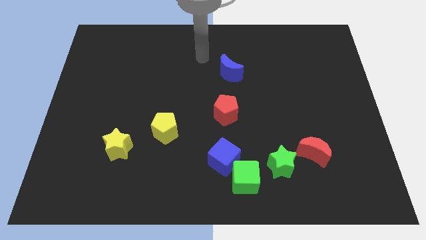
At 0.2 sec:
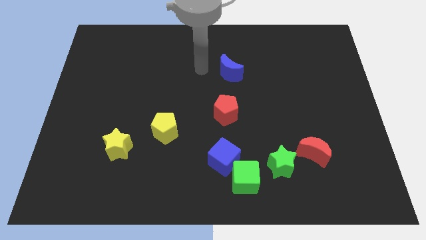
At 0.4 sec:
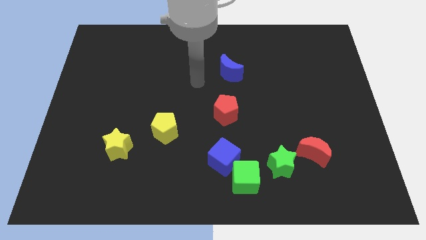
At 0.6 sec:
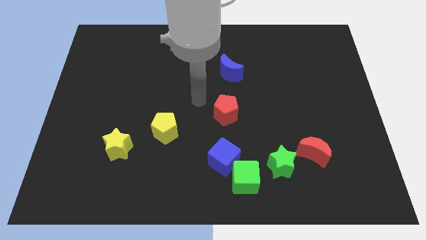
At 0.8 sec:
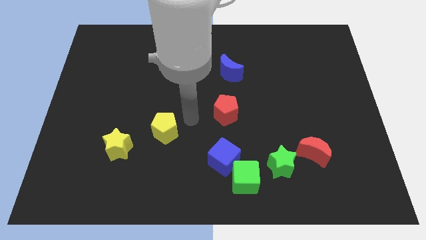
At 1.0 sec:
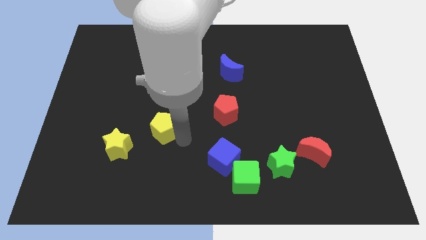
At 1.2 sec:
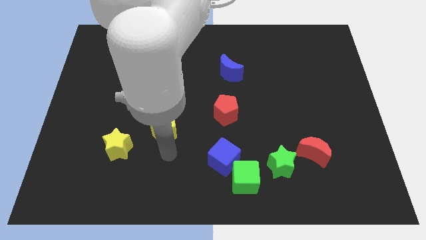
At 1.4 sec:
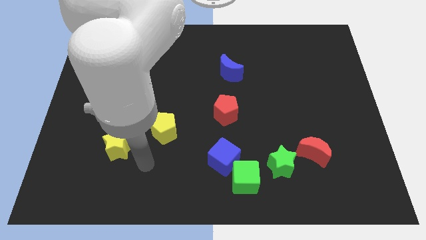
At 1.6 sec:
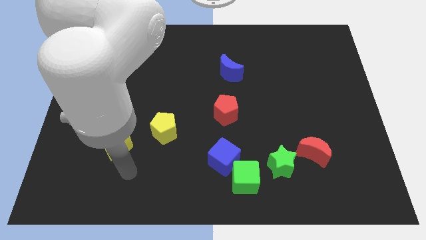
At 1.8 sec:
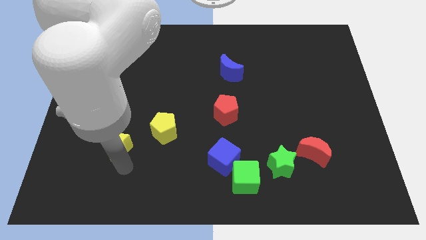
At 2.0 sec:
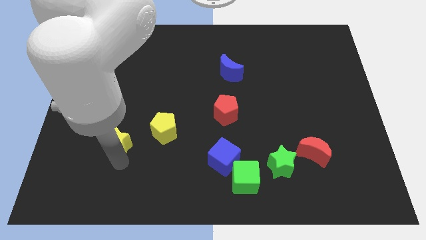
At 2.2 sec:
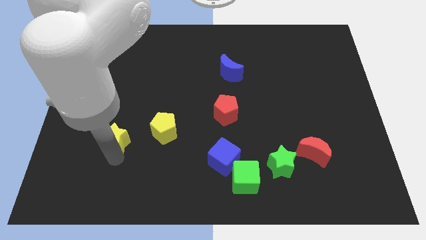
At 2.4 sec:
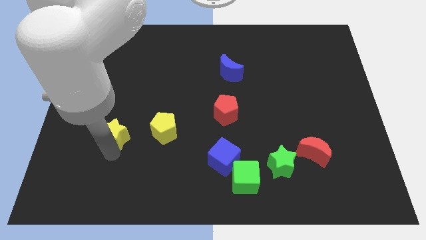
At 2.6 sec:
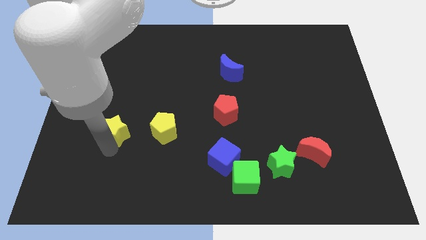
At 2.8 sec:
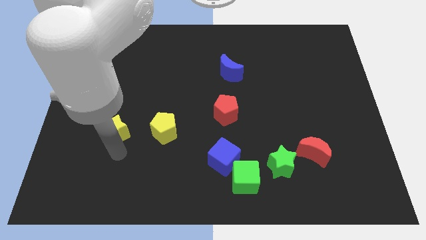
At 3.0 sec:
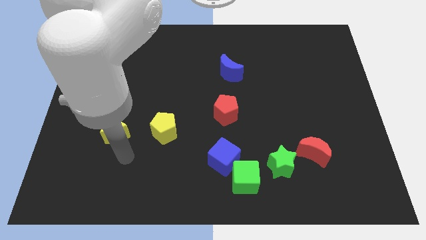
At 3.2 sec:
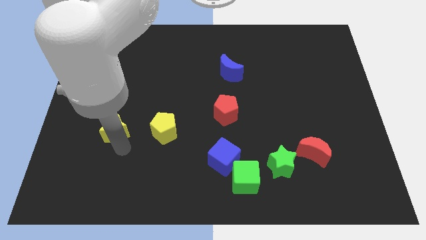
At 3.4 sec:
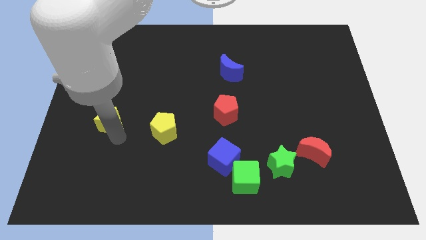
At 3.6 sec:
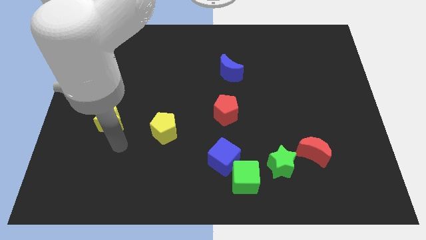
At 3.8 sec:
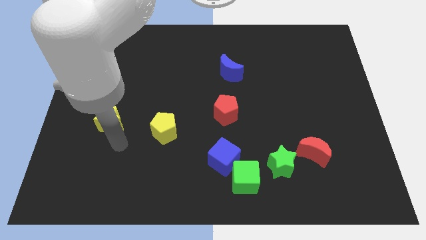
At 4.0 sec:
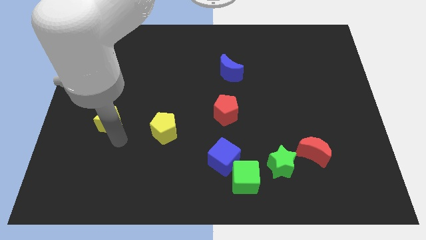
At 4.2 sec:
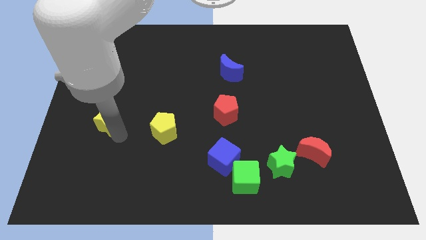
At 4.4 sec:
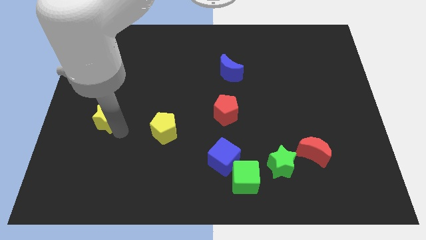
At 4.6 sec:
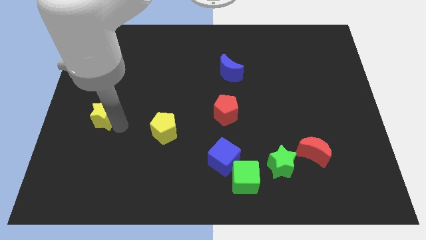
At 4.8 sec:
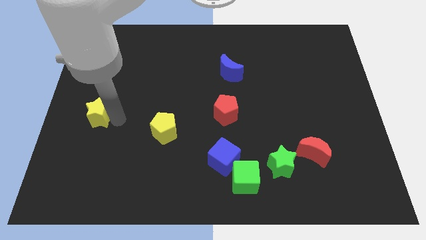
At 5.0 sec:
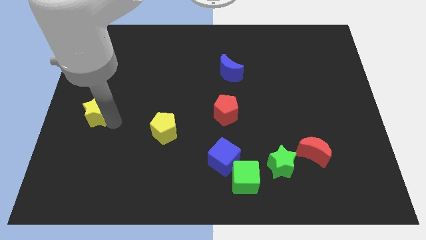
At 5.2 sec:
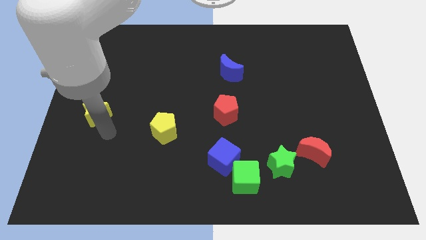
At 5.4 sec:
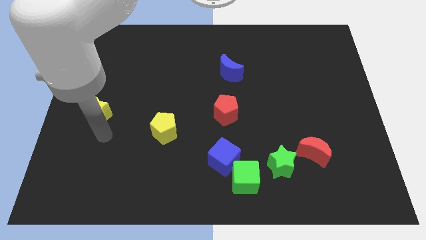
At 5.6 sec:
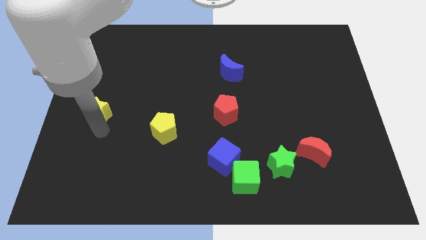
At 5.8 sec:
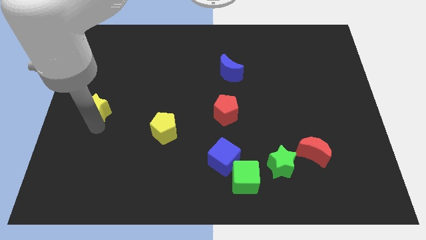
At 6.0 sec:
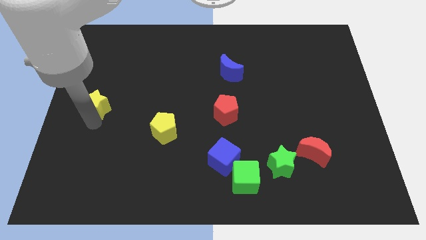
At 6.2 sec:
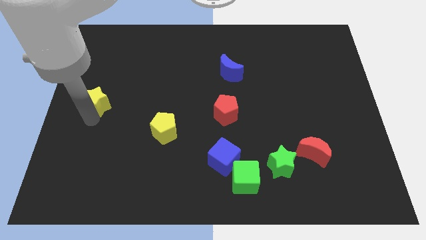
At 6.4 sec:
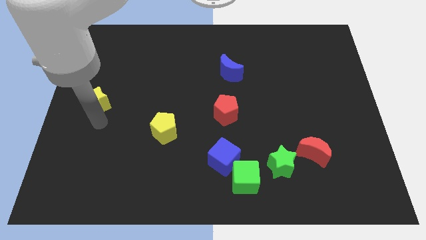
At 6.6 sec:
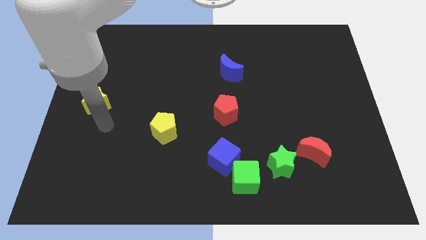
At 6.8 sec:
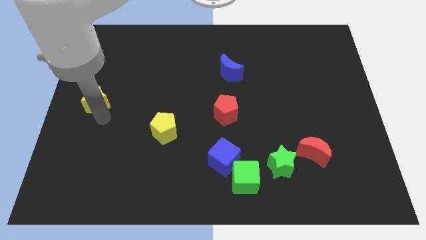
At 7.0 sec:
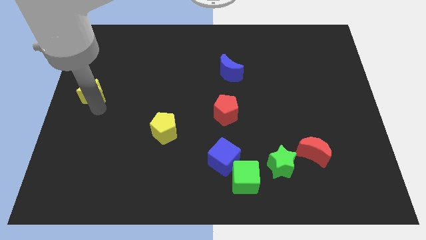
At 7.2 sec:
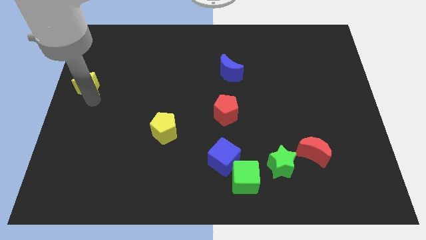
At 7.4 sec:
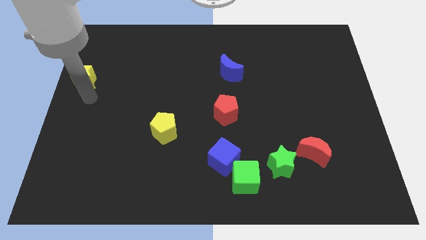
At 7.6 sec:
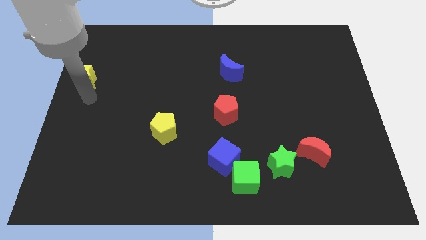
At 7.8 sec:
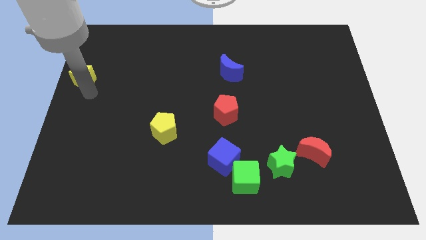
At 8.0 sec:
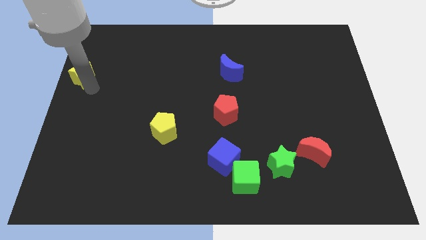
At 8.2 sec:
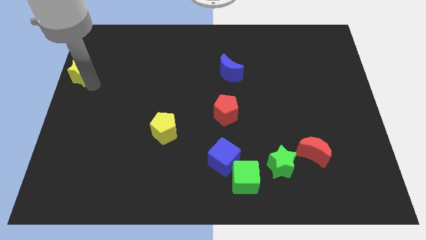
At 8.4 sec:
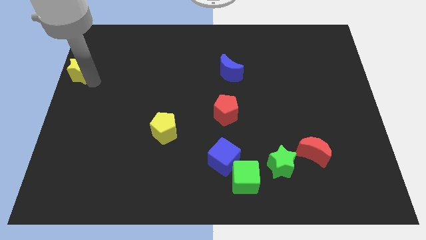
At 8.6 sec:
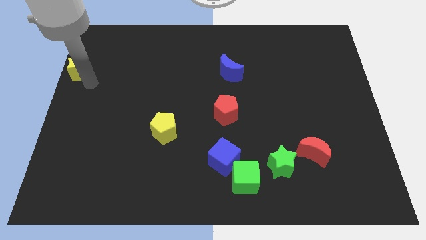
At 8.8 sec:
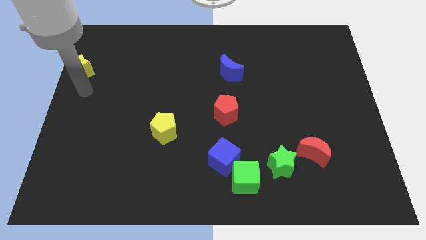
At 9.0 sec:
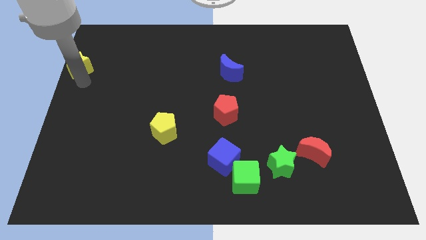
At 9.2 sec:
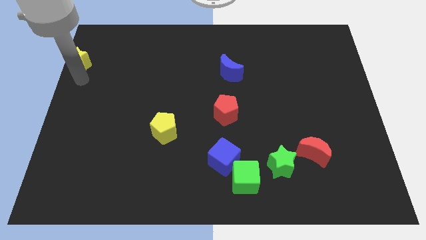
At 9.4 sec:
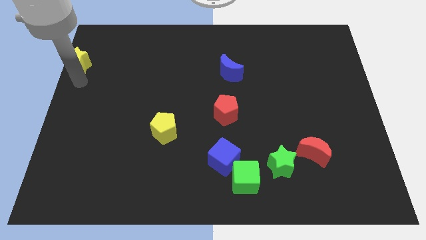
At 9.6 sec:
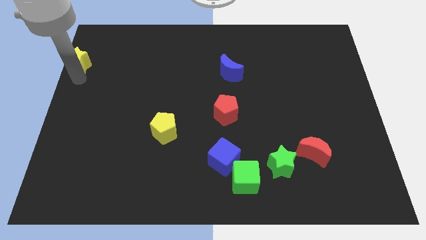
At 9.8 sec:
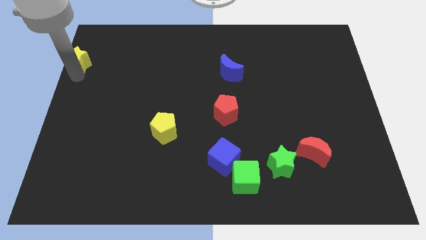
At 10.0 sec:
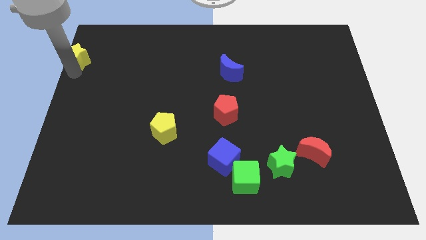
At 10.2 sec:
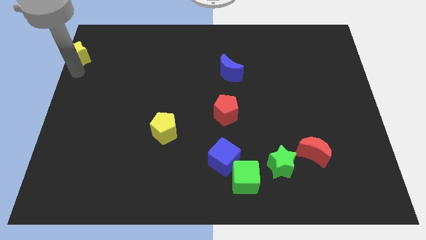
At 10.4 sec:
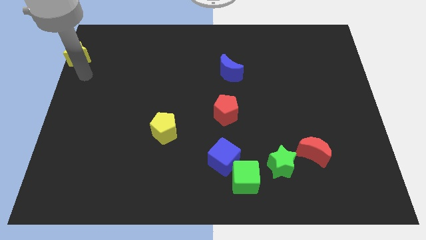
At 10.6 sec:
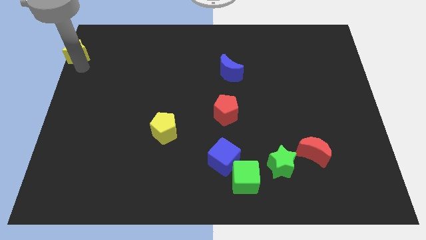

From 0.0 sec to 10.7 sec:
move the yellow star to the top left corner

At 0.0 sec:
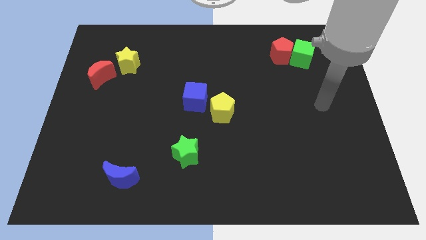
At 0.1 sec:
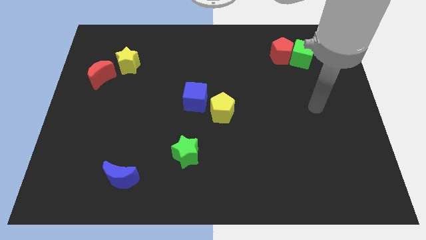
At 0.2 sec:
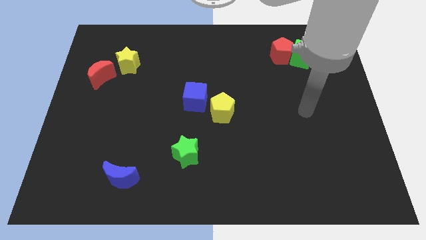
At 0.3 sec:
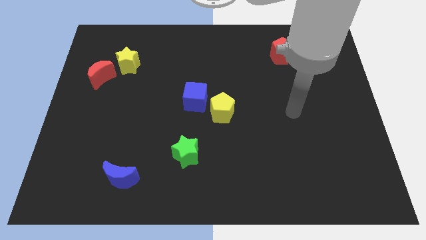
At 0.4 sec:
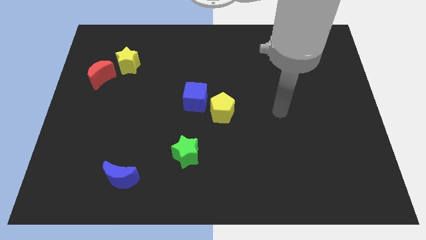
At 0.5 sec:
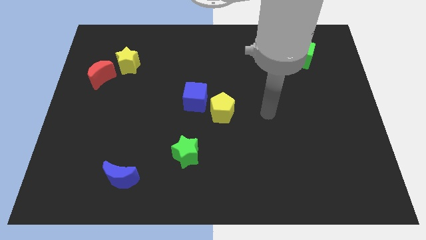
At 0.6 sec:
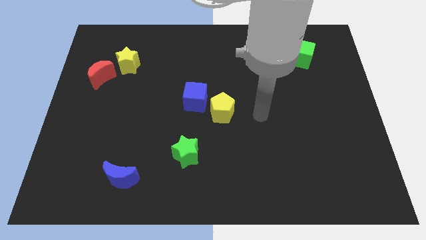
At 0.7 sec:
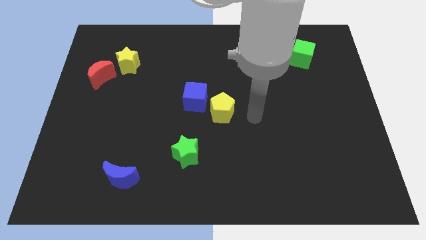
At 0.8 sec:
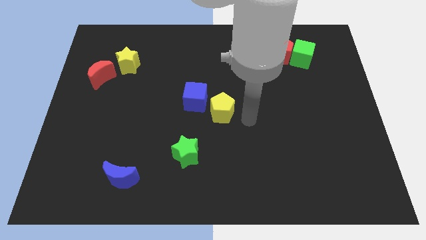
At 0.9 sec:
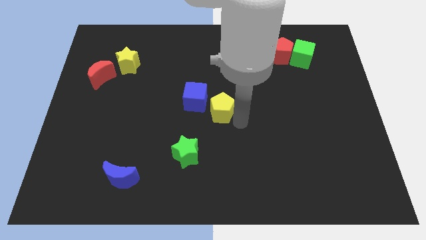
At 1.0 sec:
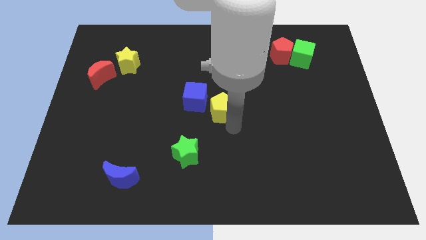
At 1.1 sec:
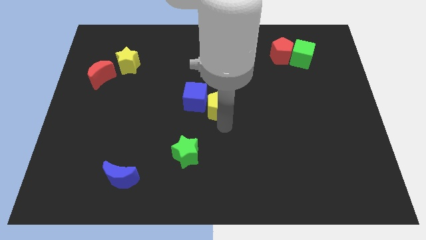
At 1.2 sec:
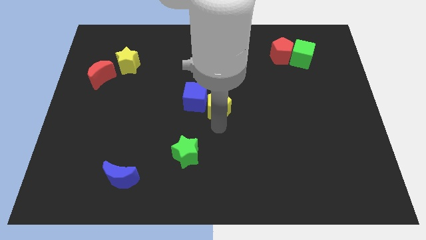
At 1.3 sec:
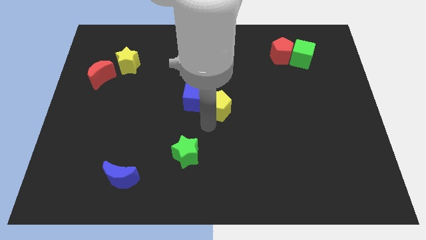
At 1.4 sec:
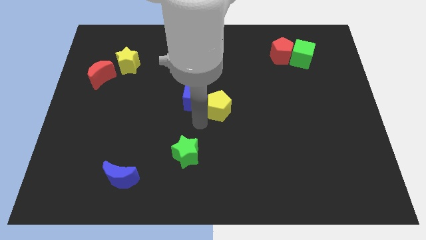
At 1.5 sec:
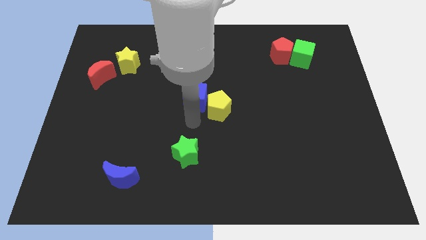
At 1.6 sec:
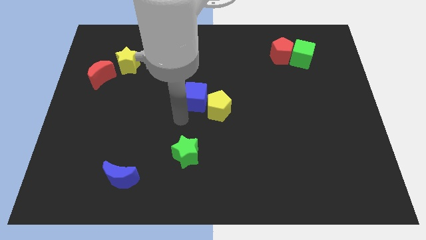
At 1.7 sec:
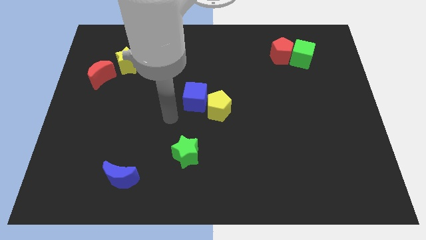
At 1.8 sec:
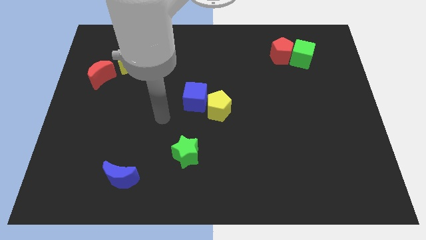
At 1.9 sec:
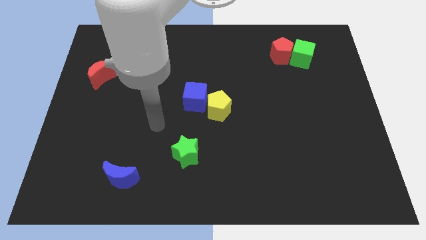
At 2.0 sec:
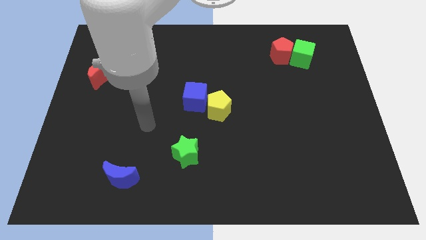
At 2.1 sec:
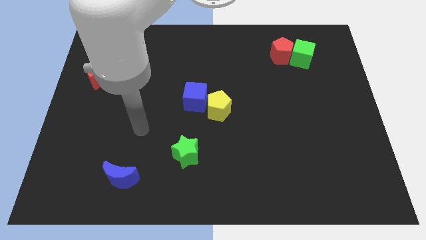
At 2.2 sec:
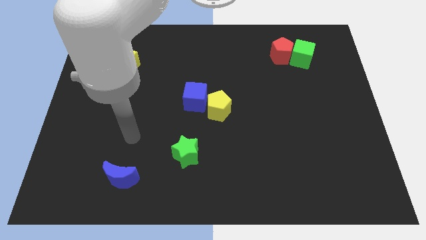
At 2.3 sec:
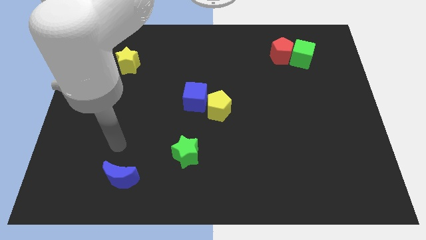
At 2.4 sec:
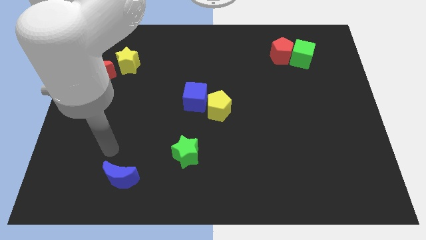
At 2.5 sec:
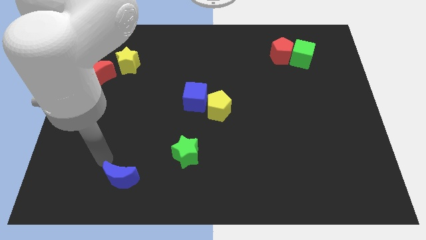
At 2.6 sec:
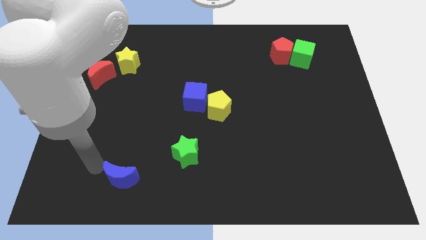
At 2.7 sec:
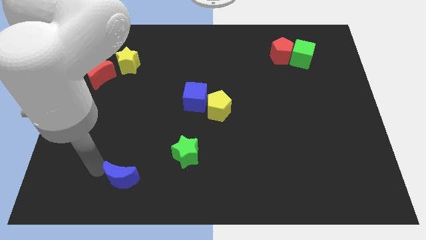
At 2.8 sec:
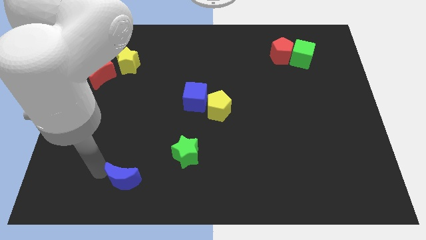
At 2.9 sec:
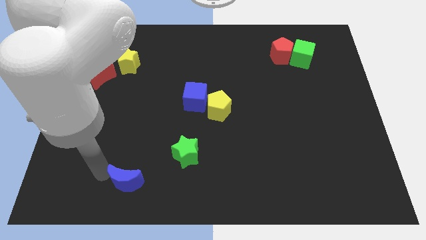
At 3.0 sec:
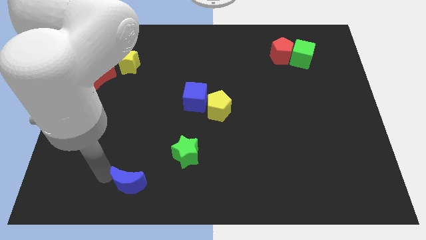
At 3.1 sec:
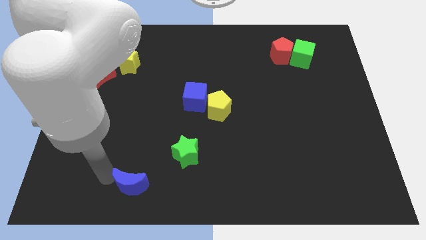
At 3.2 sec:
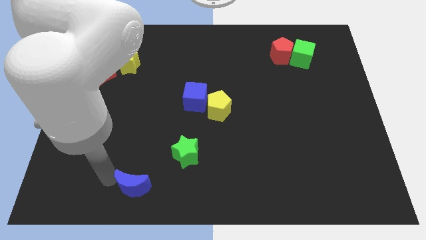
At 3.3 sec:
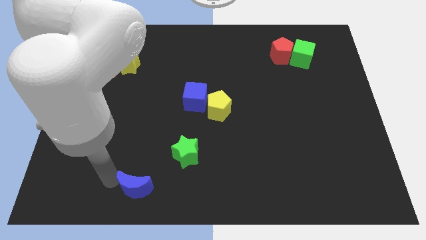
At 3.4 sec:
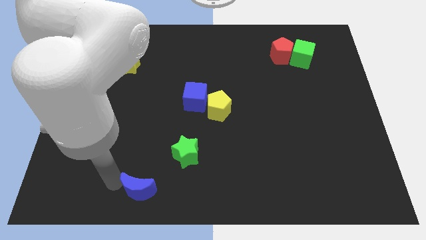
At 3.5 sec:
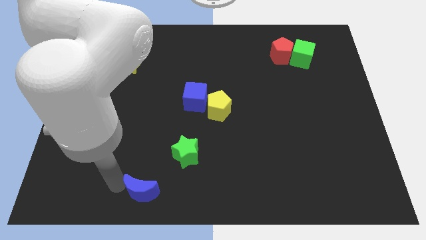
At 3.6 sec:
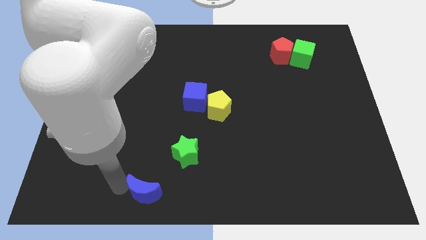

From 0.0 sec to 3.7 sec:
push the blue moon to the bottom side
